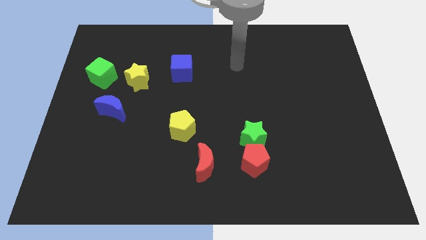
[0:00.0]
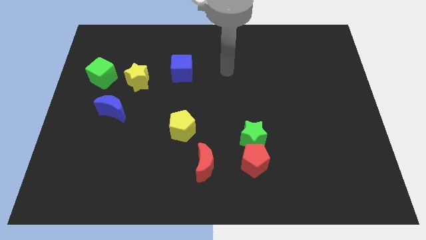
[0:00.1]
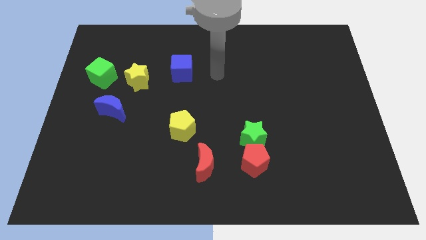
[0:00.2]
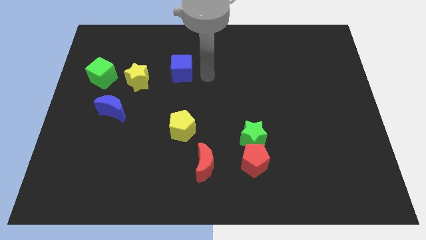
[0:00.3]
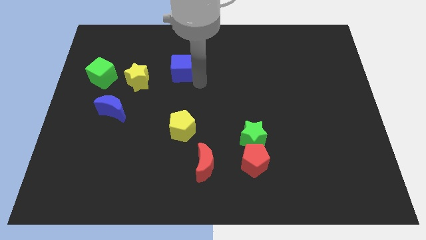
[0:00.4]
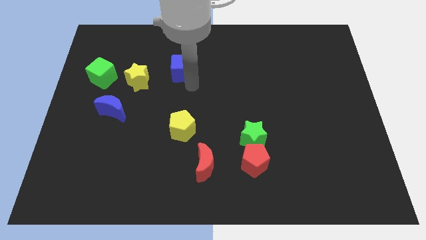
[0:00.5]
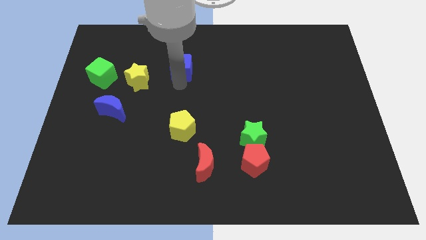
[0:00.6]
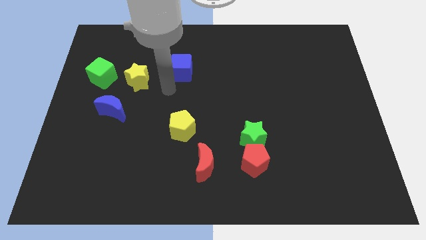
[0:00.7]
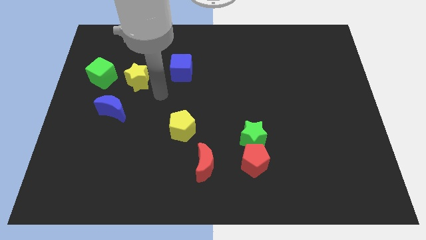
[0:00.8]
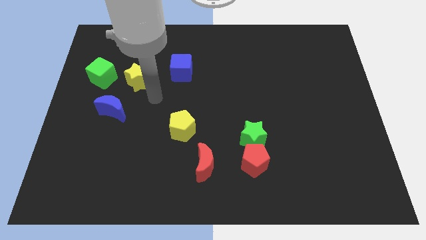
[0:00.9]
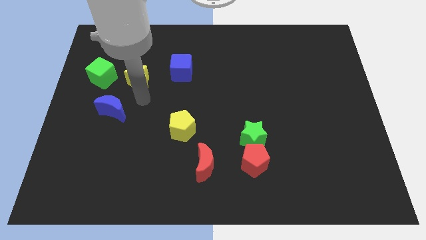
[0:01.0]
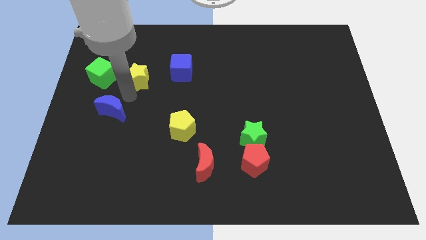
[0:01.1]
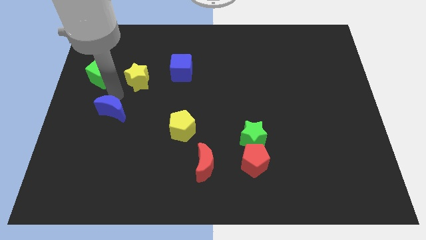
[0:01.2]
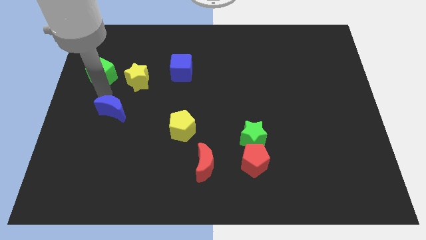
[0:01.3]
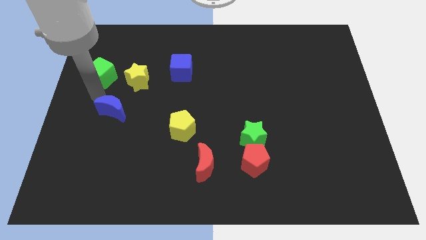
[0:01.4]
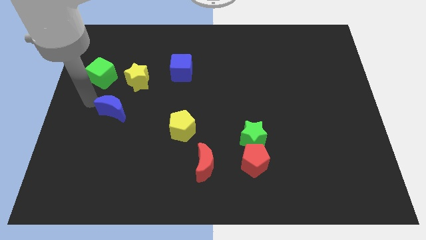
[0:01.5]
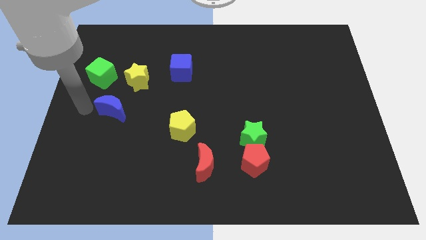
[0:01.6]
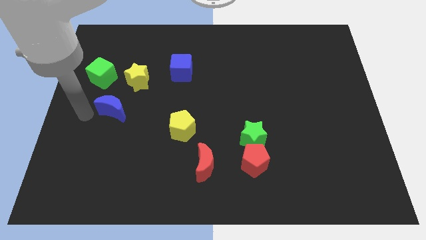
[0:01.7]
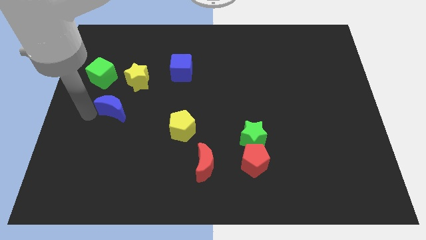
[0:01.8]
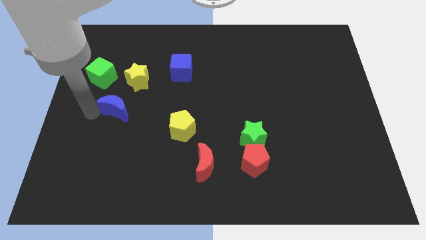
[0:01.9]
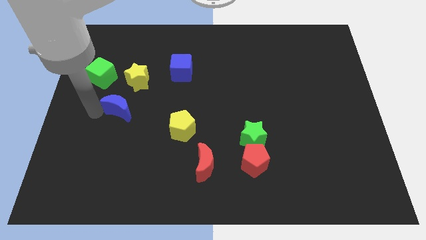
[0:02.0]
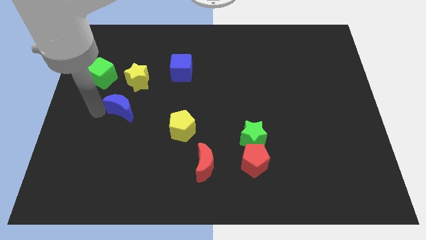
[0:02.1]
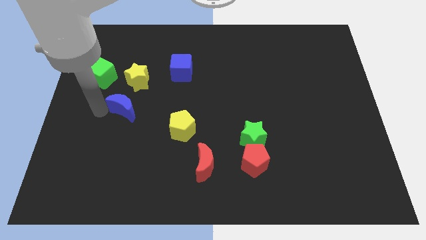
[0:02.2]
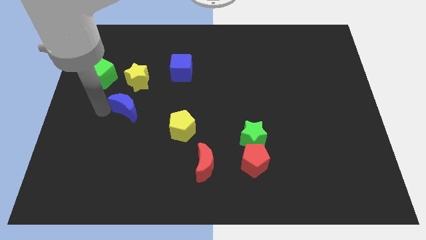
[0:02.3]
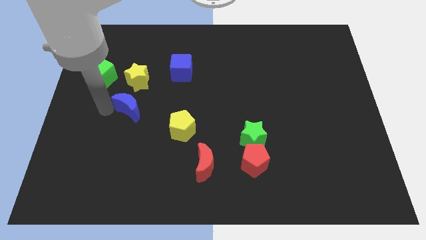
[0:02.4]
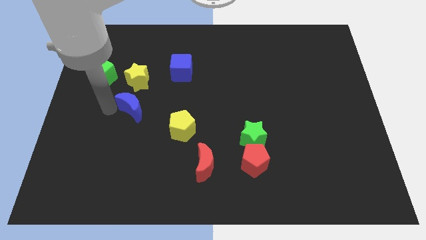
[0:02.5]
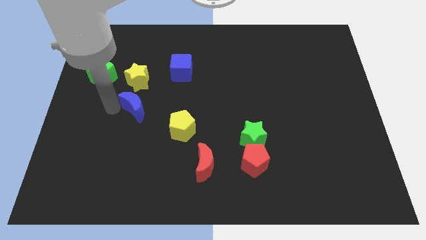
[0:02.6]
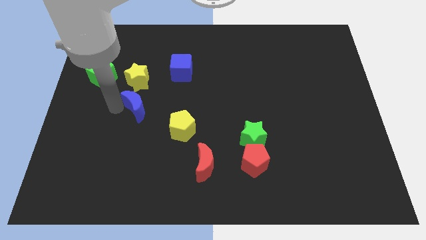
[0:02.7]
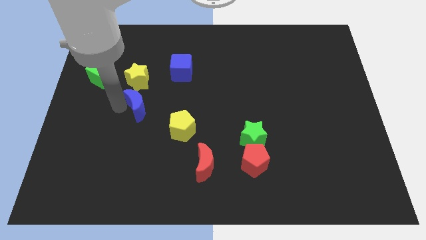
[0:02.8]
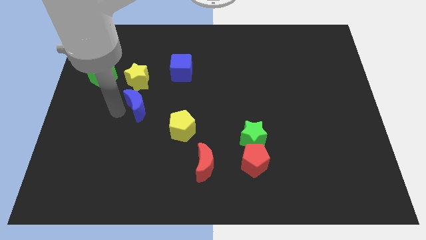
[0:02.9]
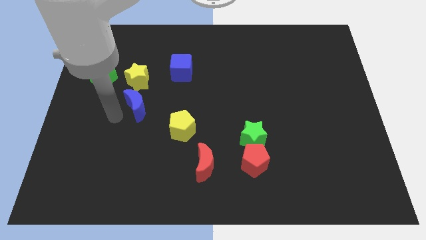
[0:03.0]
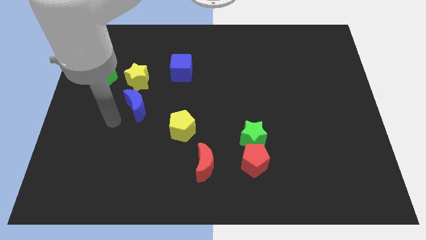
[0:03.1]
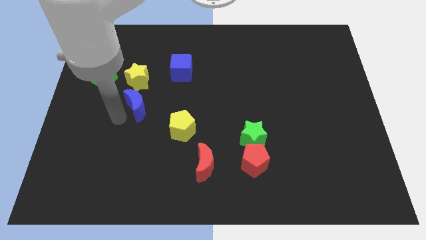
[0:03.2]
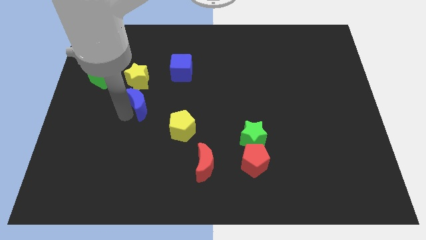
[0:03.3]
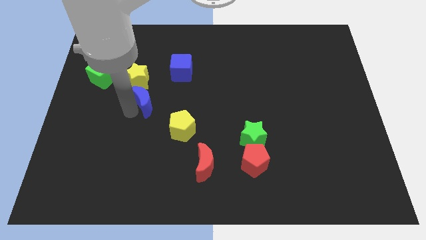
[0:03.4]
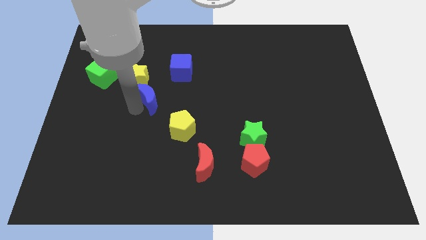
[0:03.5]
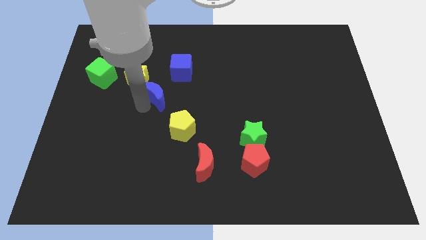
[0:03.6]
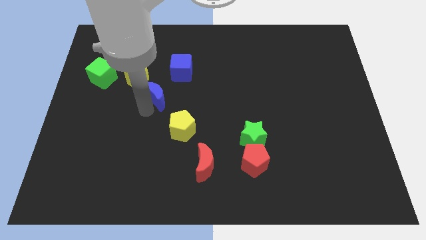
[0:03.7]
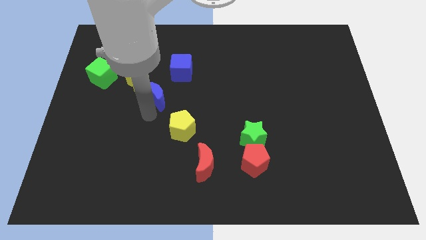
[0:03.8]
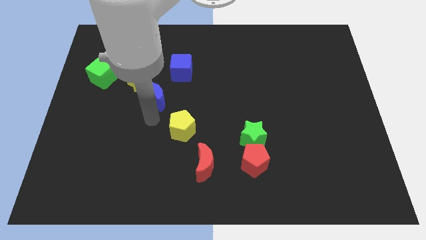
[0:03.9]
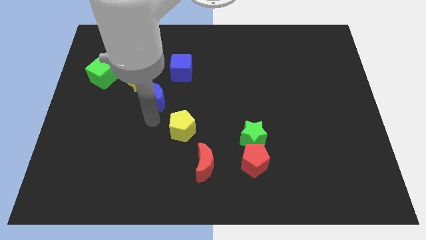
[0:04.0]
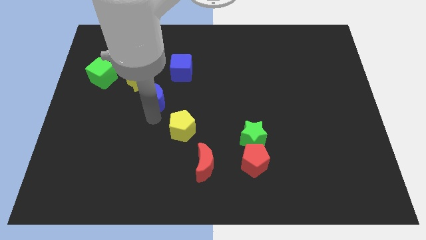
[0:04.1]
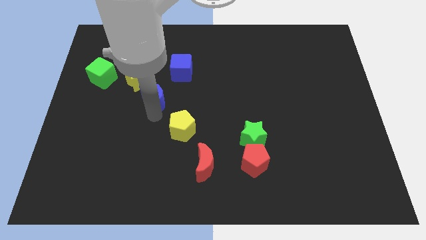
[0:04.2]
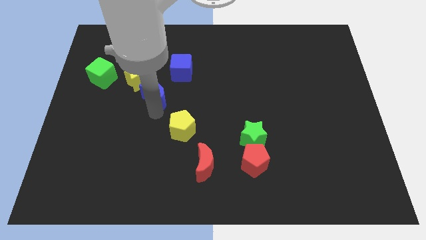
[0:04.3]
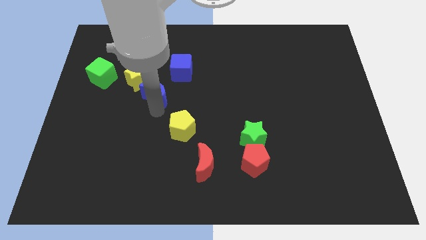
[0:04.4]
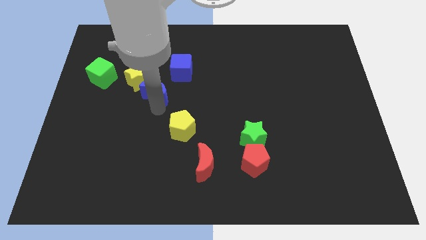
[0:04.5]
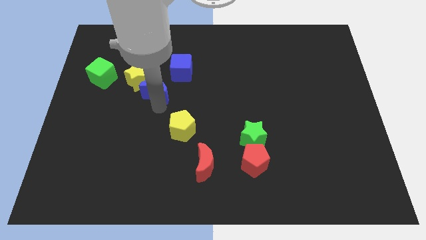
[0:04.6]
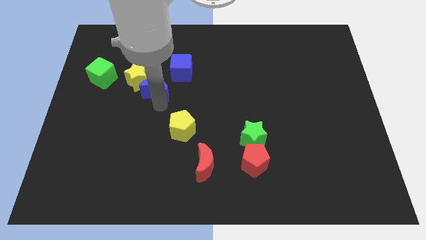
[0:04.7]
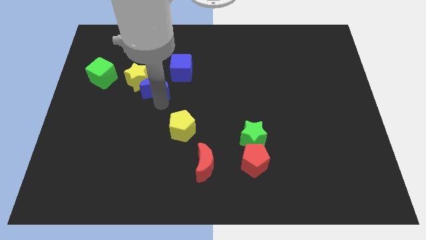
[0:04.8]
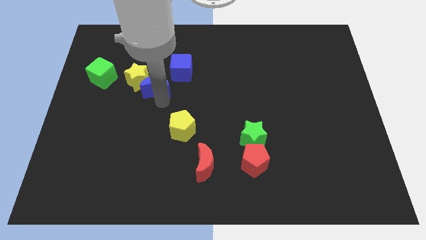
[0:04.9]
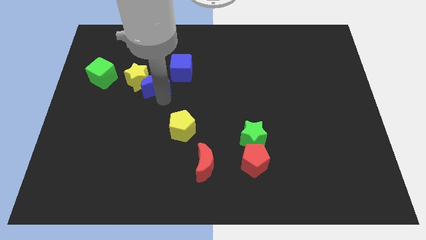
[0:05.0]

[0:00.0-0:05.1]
slide the blue moon to the right of the green cube

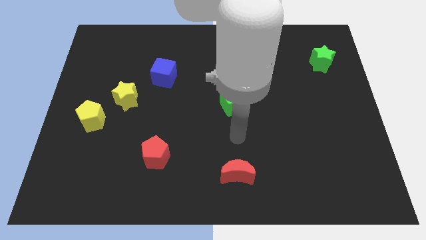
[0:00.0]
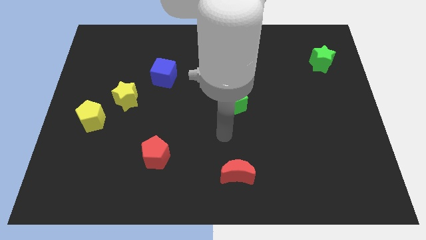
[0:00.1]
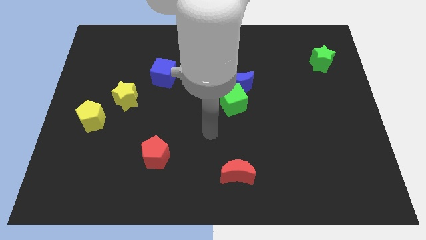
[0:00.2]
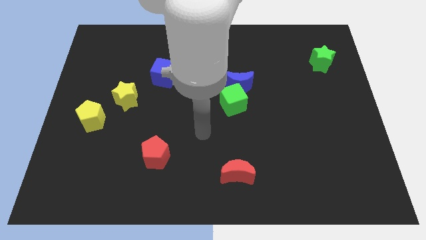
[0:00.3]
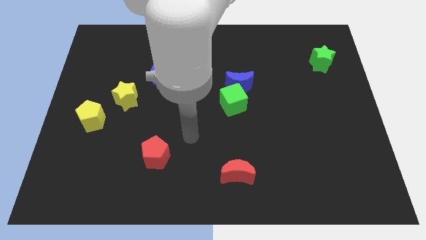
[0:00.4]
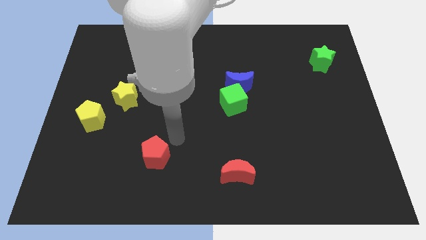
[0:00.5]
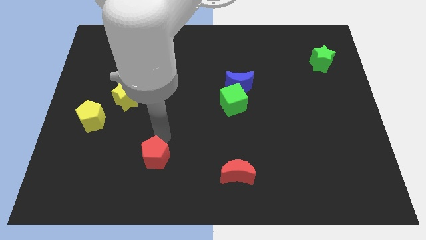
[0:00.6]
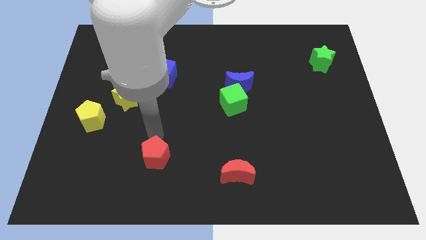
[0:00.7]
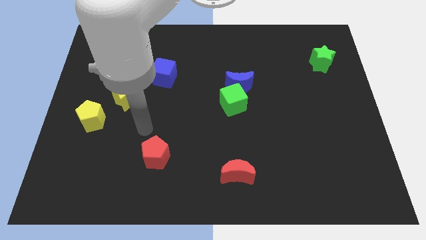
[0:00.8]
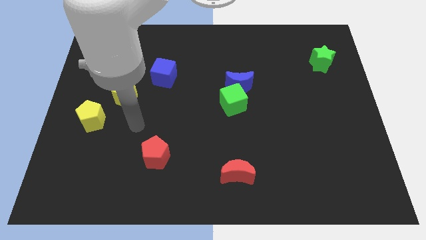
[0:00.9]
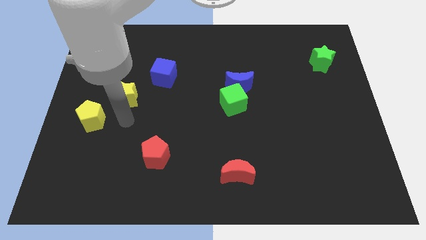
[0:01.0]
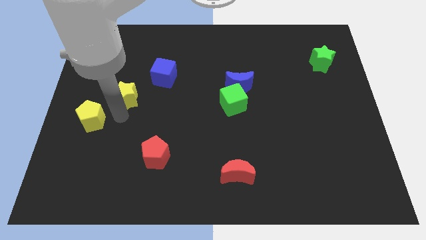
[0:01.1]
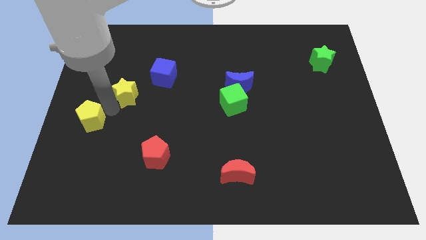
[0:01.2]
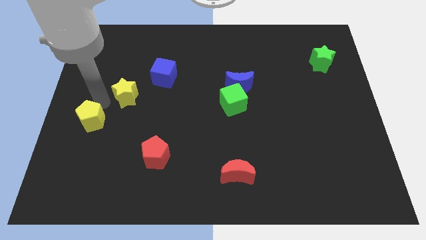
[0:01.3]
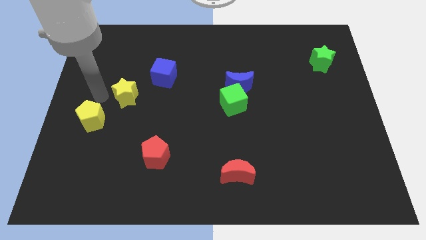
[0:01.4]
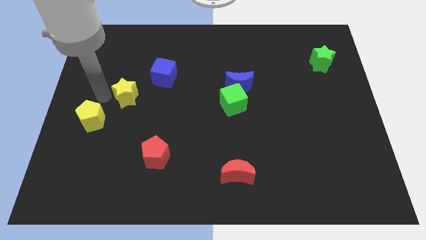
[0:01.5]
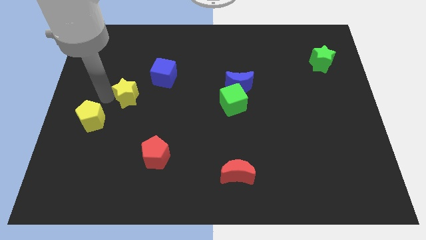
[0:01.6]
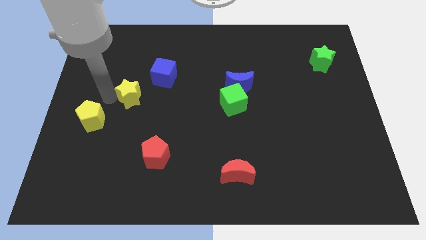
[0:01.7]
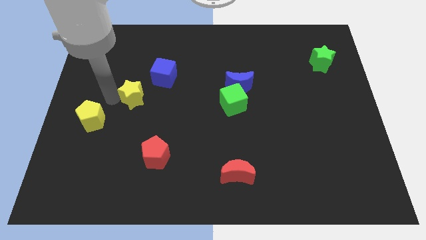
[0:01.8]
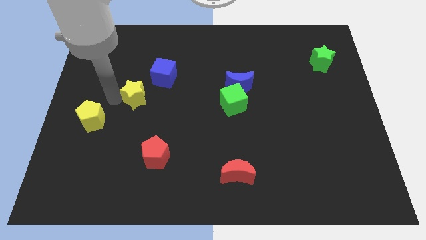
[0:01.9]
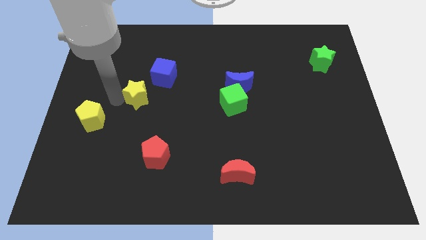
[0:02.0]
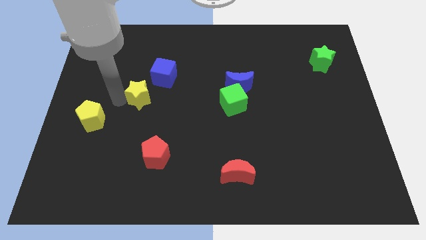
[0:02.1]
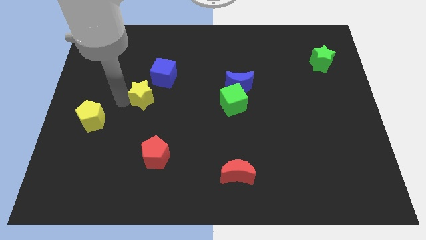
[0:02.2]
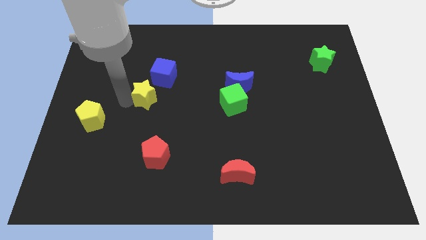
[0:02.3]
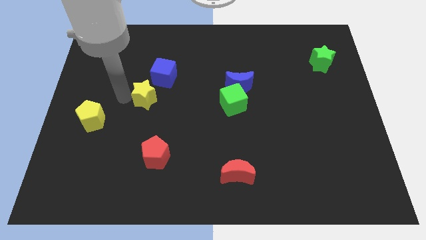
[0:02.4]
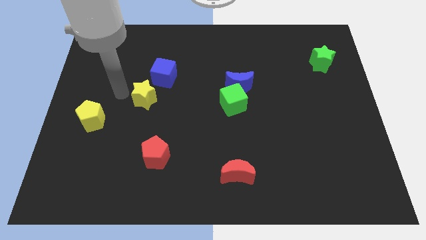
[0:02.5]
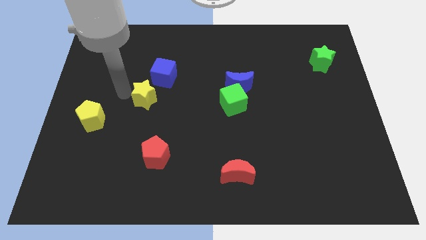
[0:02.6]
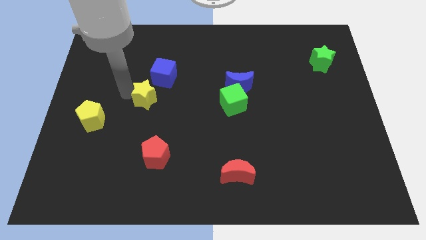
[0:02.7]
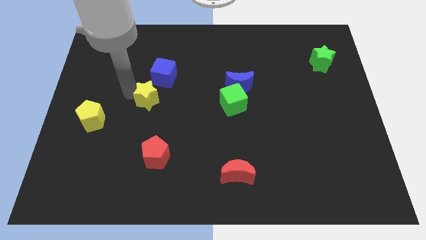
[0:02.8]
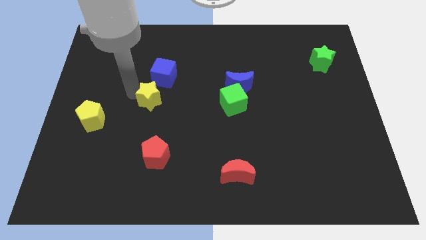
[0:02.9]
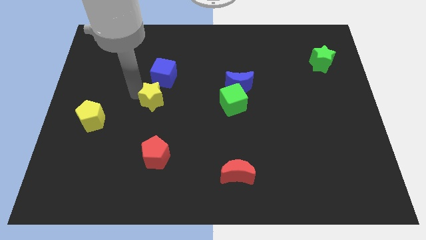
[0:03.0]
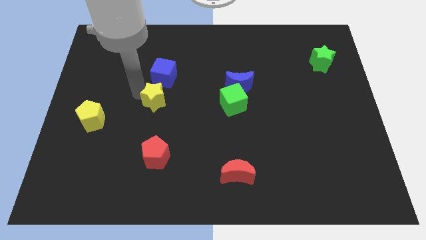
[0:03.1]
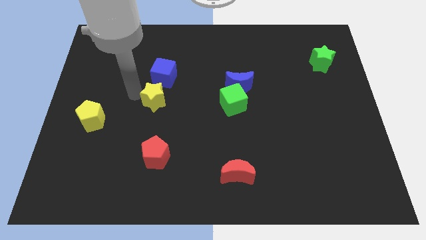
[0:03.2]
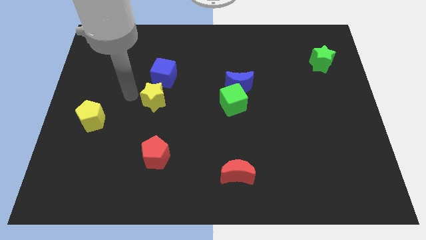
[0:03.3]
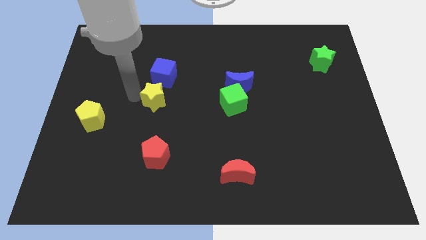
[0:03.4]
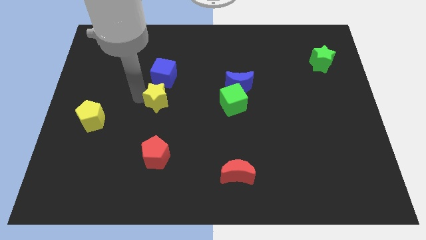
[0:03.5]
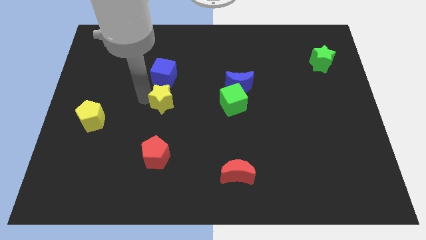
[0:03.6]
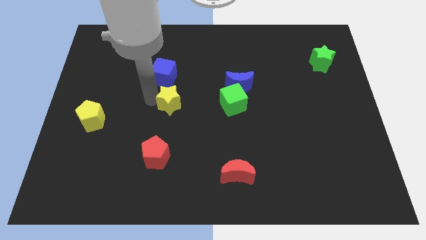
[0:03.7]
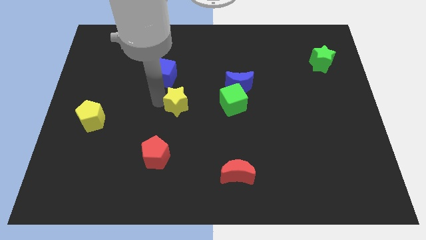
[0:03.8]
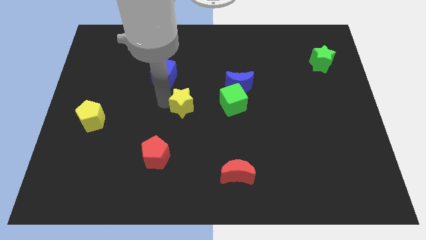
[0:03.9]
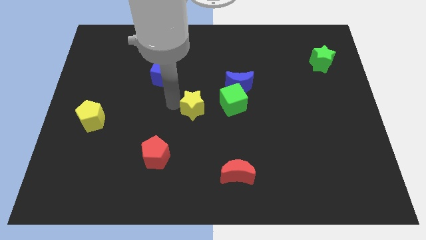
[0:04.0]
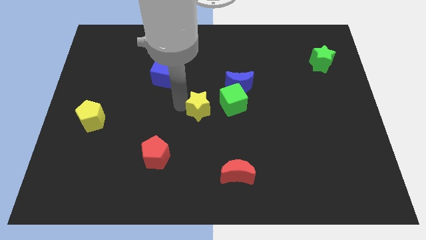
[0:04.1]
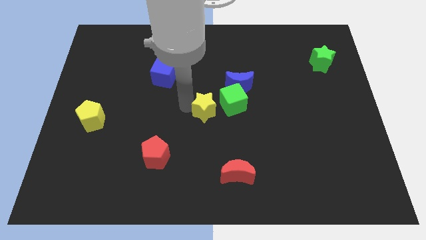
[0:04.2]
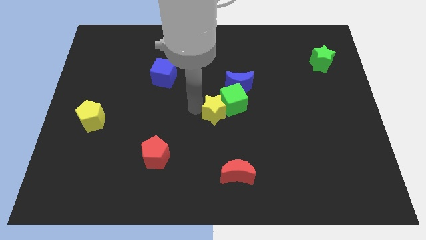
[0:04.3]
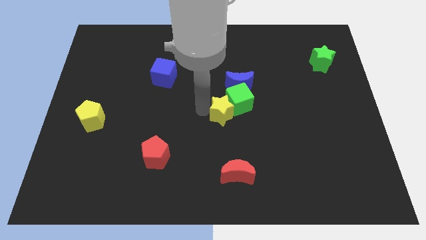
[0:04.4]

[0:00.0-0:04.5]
slide the yellow star below the blue moon
